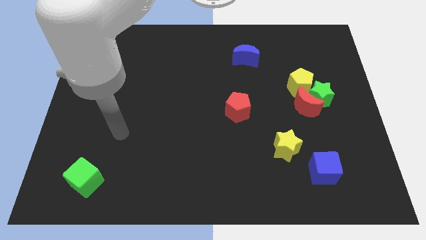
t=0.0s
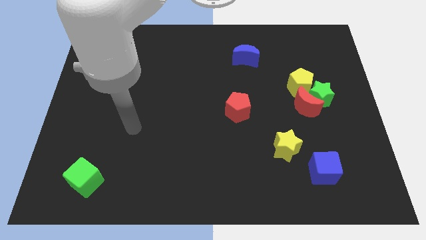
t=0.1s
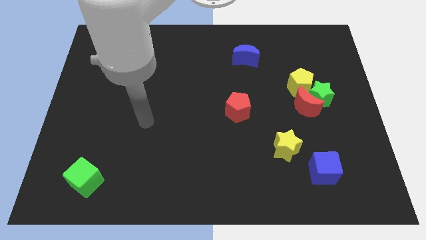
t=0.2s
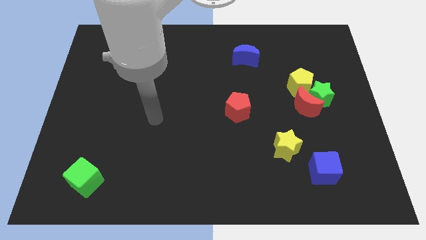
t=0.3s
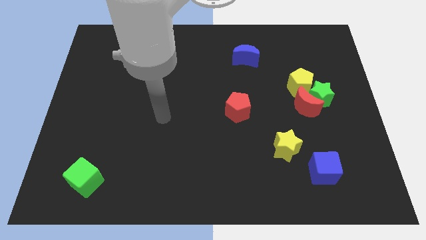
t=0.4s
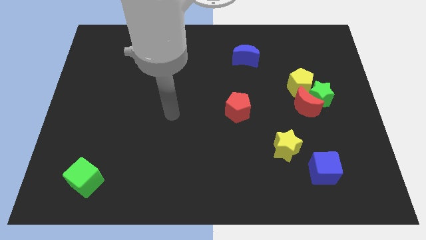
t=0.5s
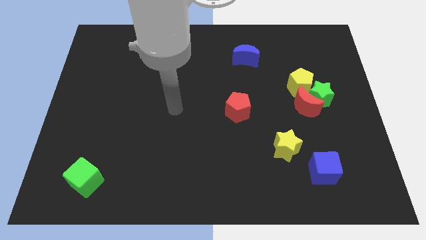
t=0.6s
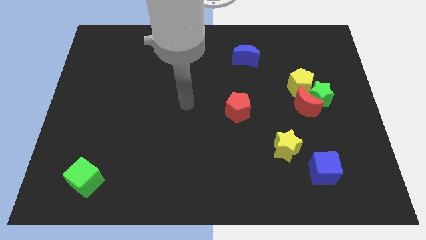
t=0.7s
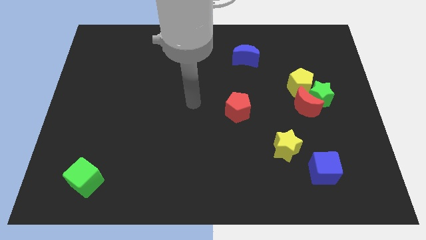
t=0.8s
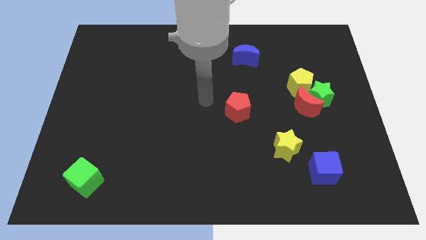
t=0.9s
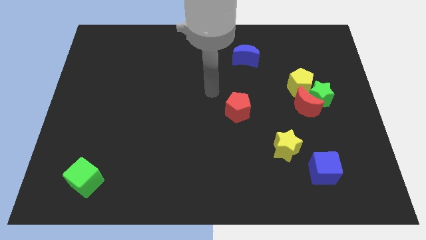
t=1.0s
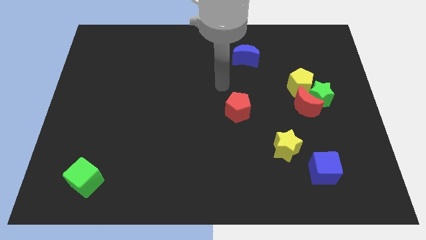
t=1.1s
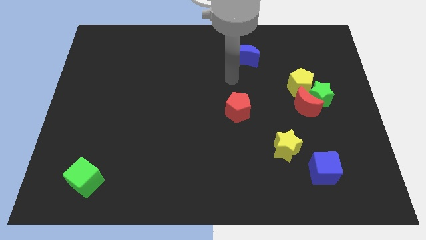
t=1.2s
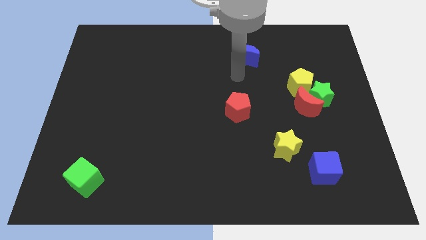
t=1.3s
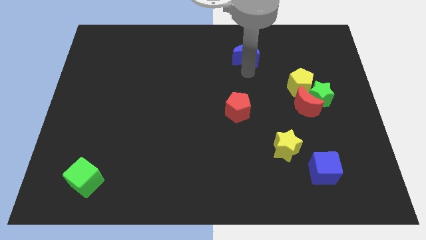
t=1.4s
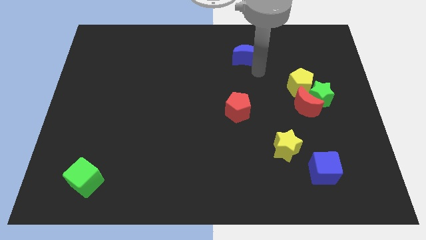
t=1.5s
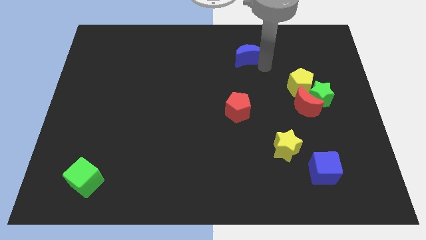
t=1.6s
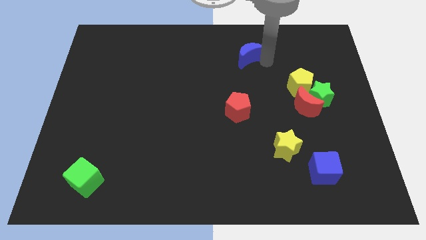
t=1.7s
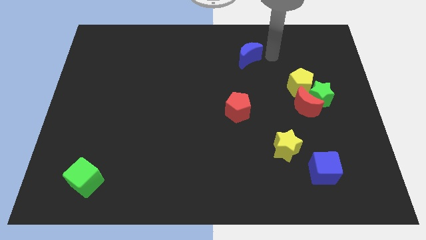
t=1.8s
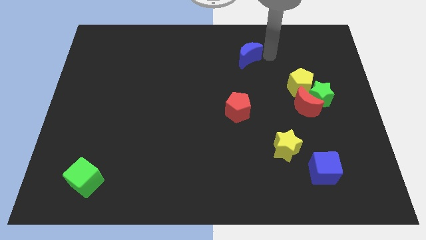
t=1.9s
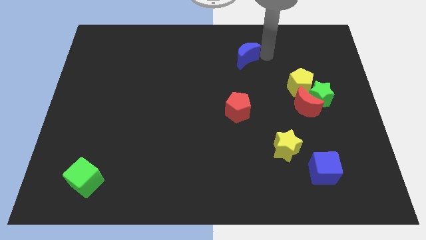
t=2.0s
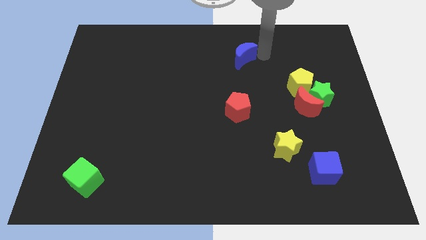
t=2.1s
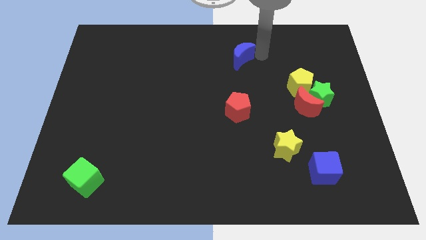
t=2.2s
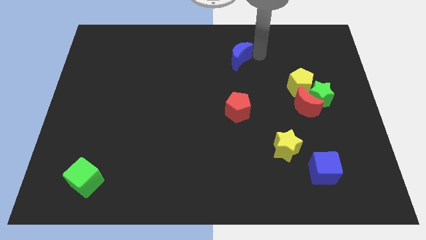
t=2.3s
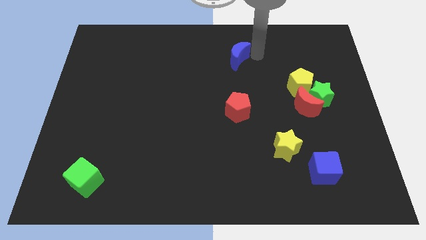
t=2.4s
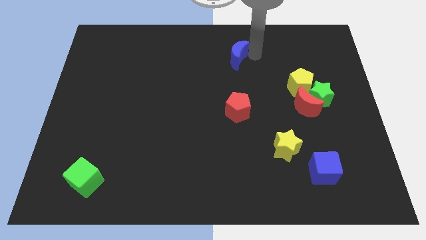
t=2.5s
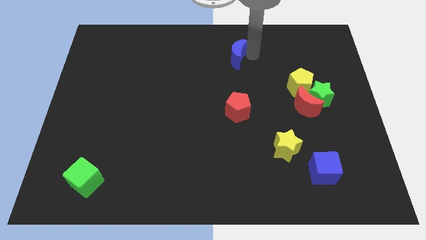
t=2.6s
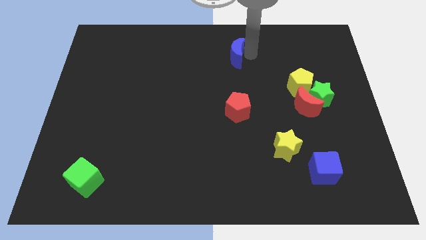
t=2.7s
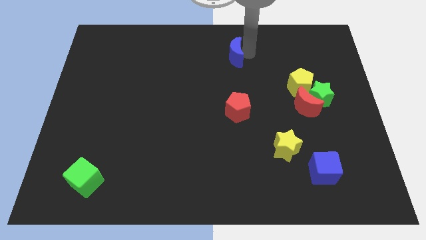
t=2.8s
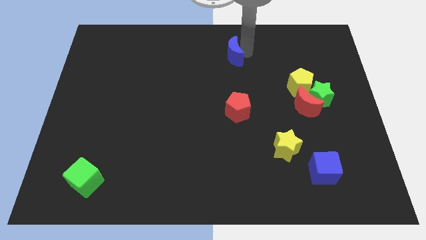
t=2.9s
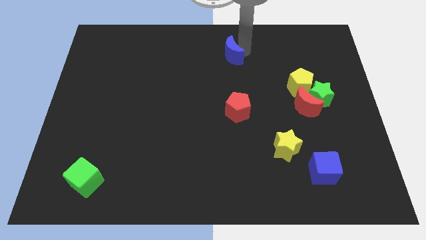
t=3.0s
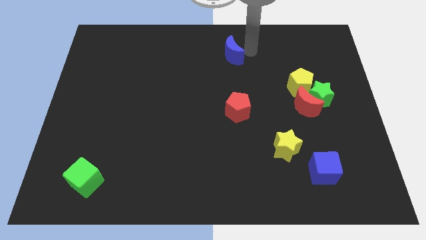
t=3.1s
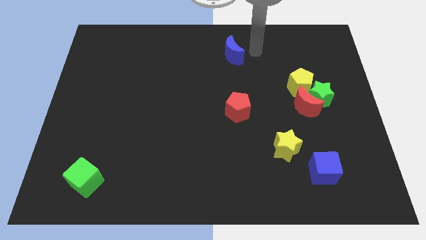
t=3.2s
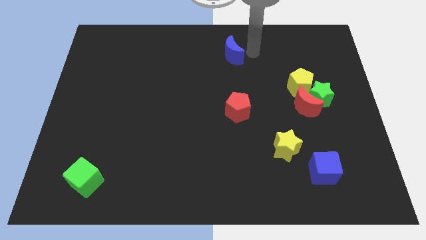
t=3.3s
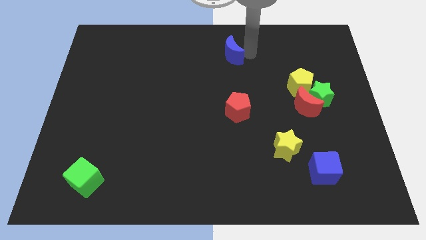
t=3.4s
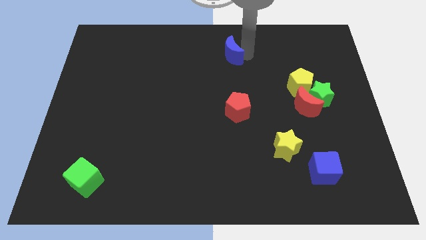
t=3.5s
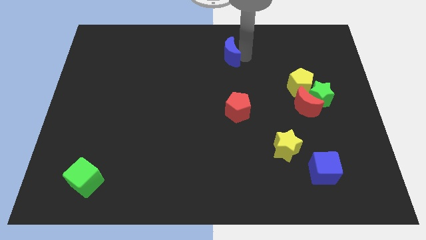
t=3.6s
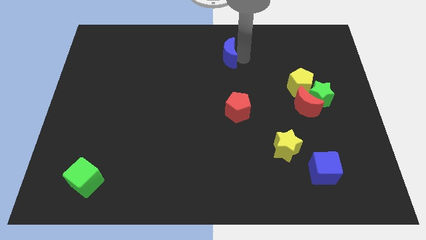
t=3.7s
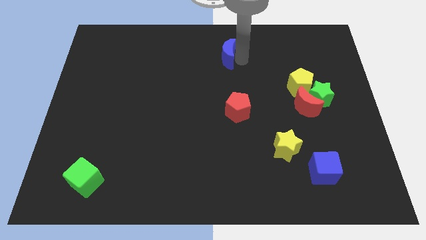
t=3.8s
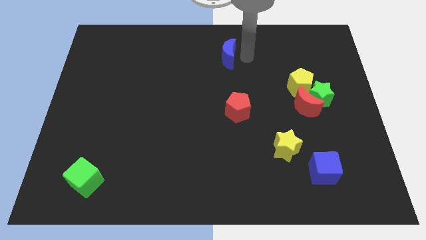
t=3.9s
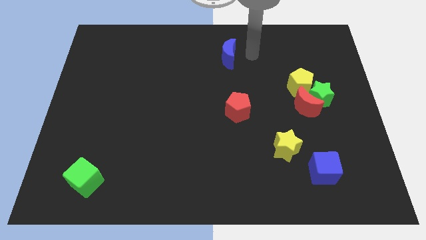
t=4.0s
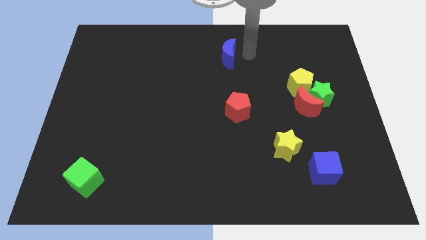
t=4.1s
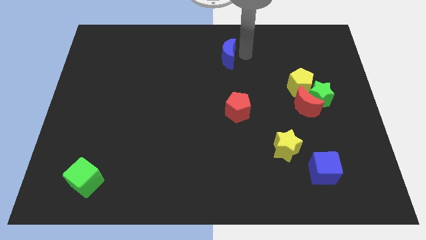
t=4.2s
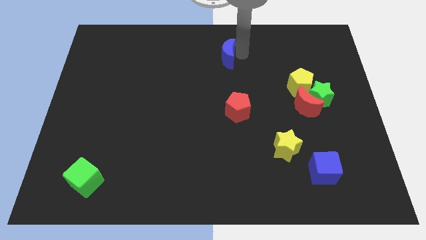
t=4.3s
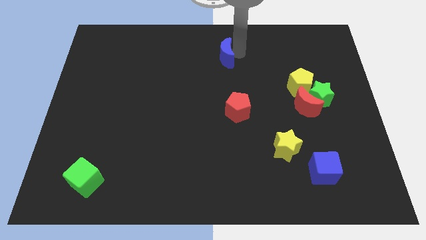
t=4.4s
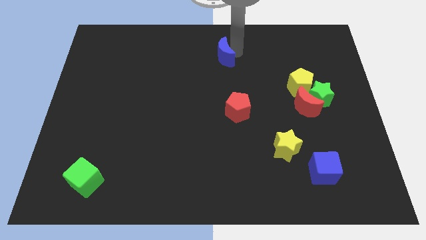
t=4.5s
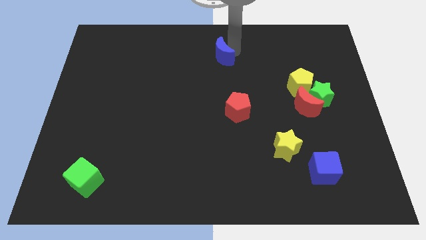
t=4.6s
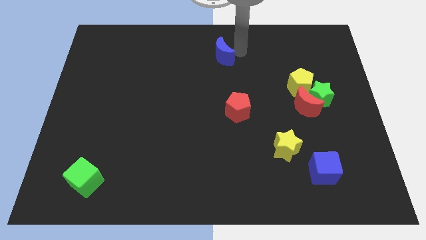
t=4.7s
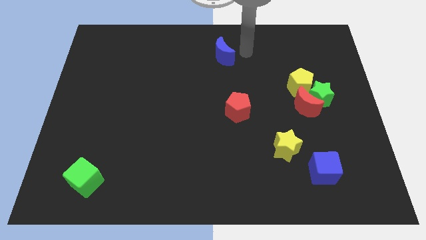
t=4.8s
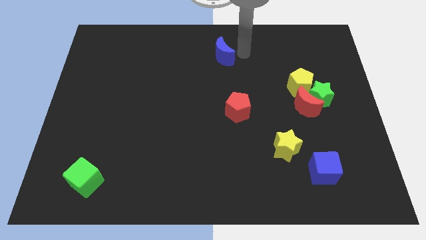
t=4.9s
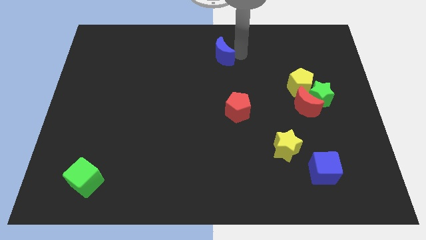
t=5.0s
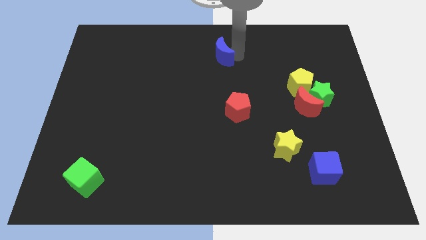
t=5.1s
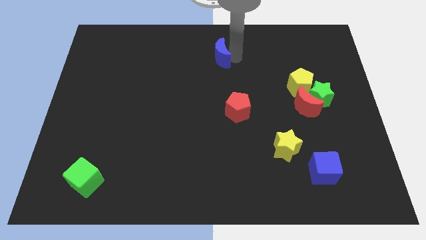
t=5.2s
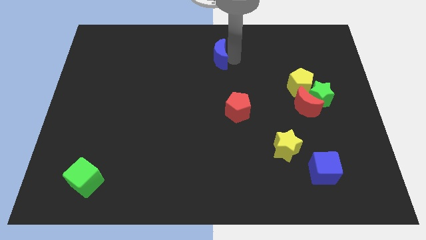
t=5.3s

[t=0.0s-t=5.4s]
move the blue moon slightly to the left

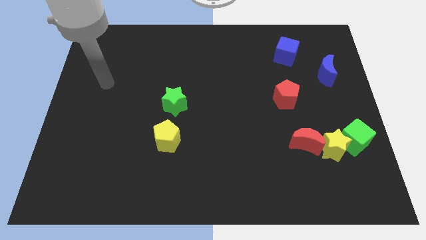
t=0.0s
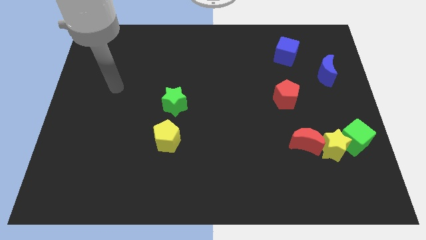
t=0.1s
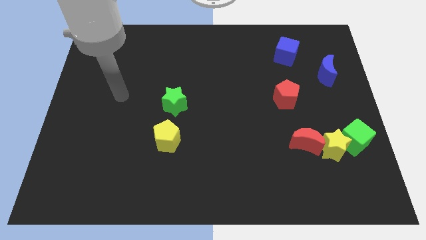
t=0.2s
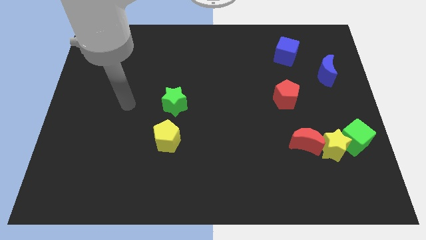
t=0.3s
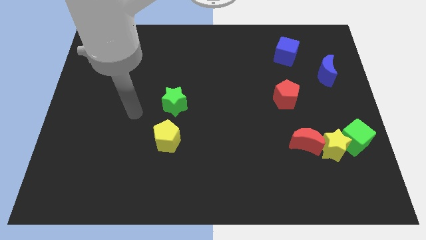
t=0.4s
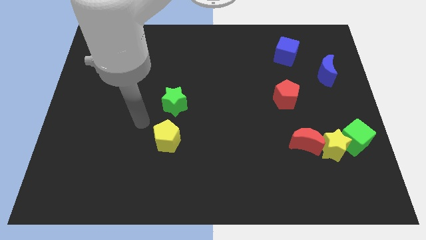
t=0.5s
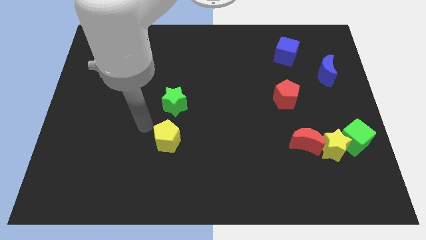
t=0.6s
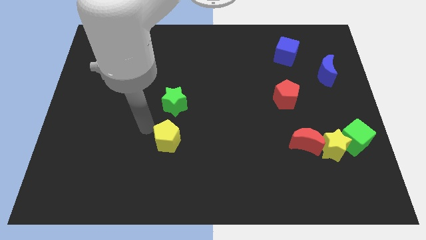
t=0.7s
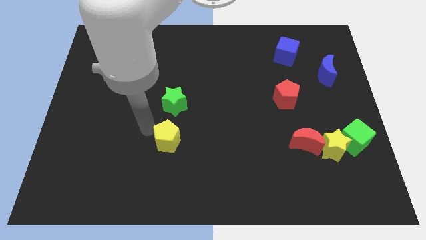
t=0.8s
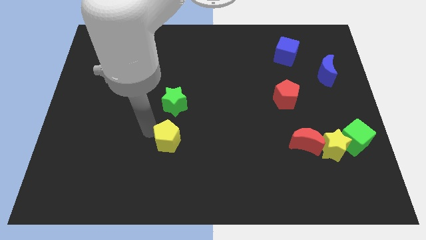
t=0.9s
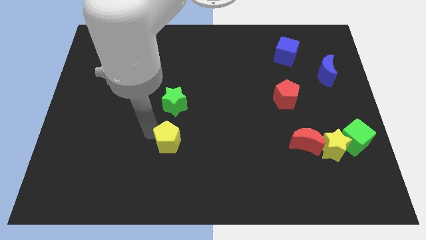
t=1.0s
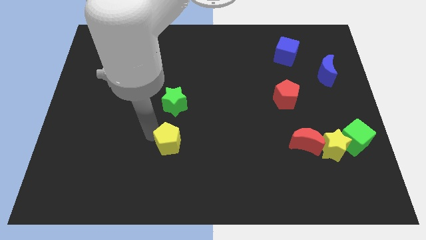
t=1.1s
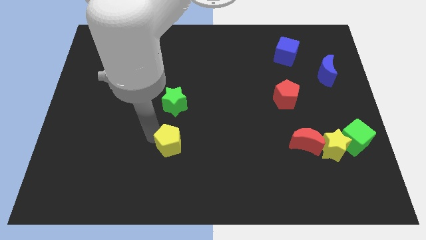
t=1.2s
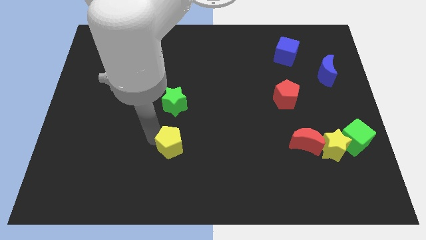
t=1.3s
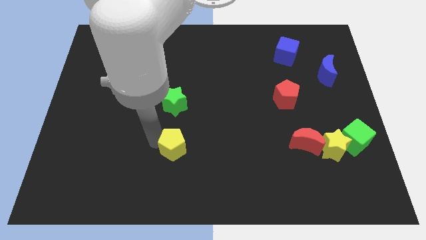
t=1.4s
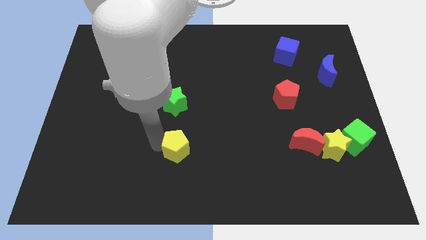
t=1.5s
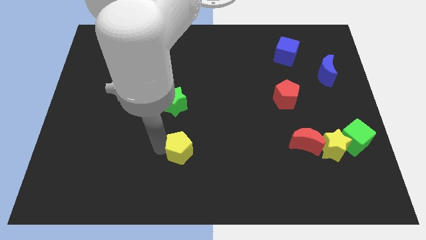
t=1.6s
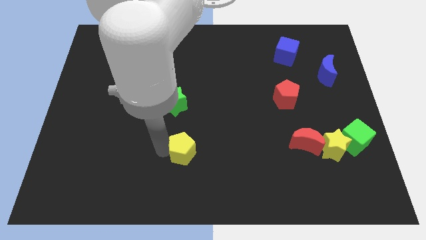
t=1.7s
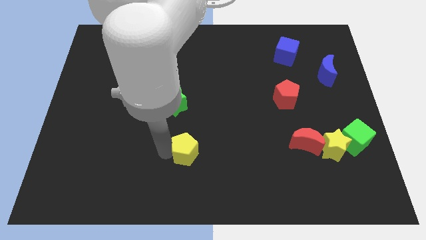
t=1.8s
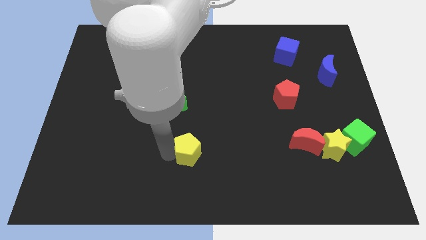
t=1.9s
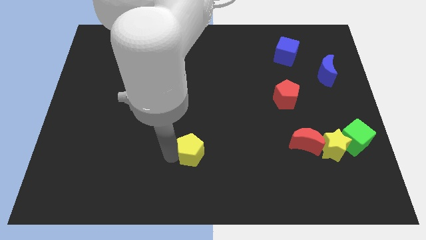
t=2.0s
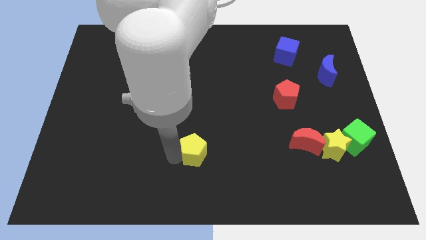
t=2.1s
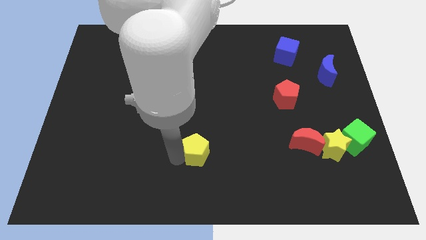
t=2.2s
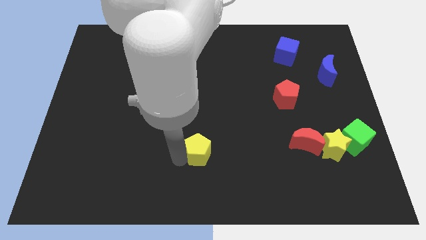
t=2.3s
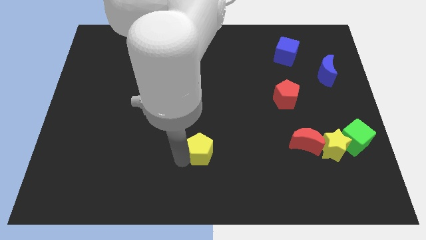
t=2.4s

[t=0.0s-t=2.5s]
slightly move the yellow pentagon to the right
